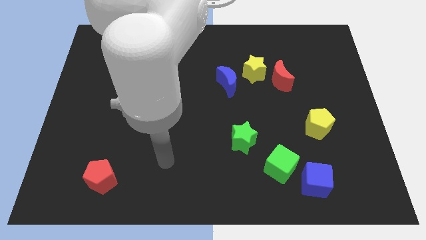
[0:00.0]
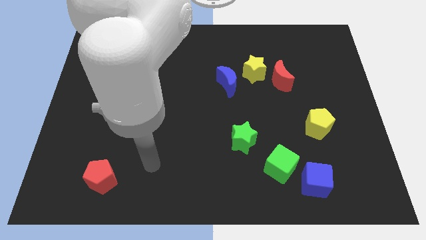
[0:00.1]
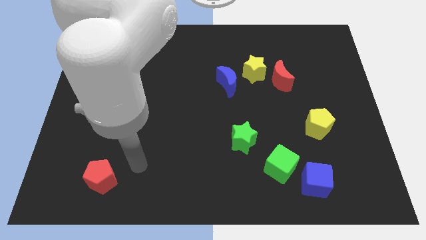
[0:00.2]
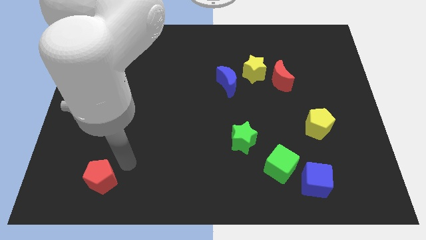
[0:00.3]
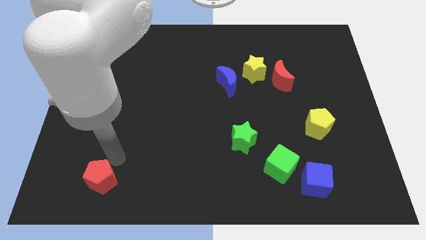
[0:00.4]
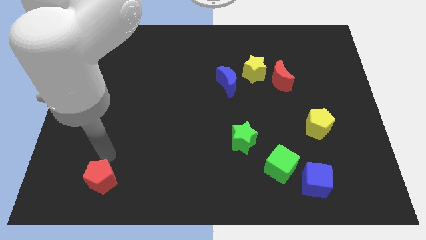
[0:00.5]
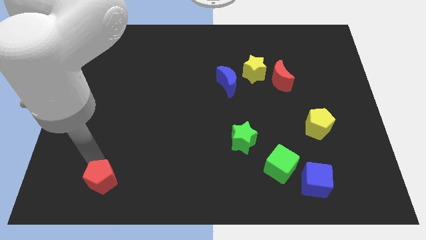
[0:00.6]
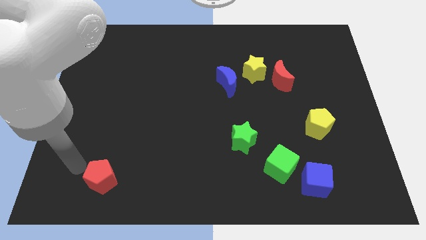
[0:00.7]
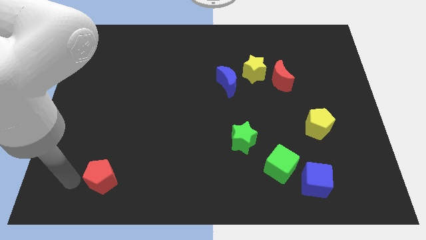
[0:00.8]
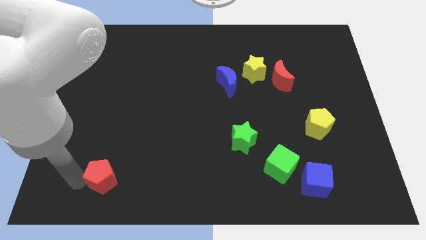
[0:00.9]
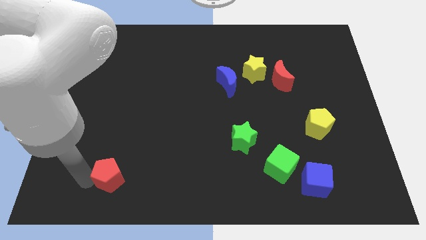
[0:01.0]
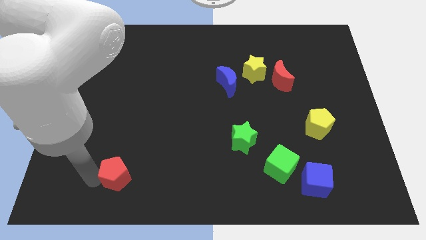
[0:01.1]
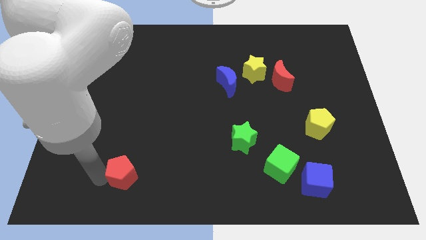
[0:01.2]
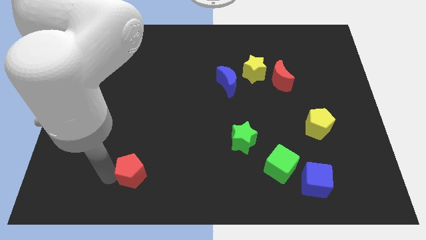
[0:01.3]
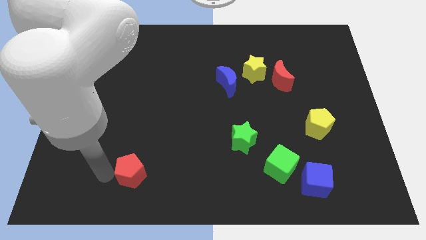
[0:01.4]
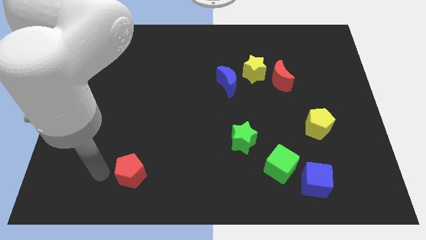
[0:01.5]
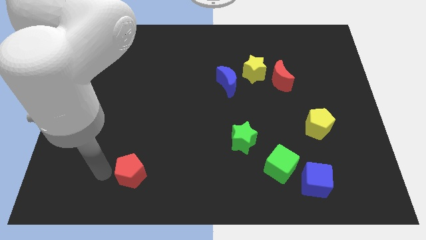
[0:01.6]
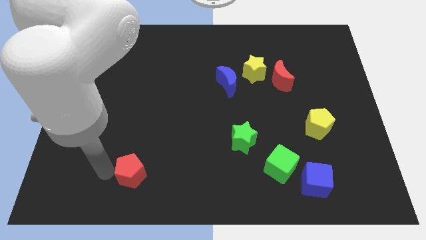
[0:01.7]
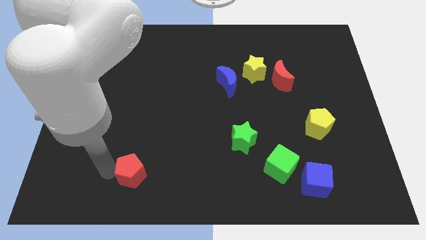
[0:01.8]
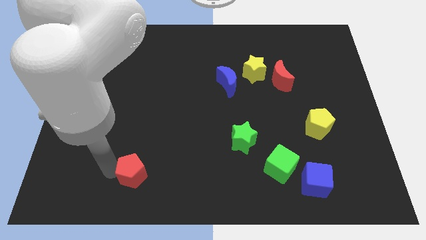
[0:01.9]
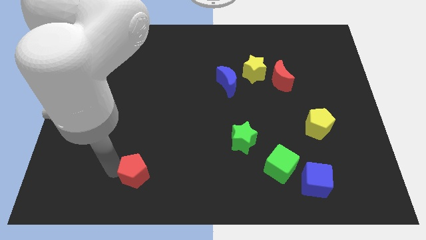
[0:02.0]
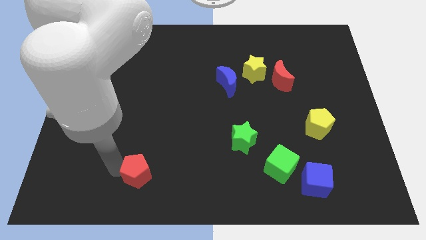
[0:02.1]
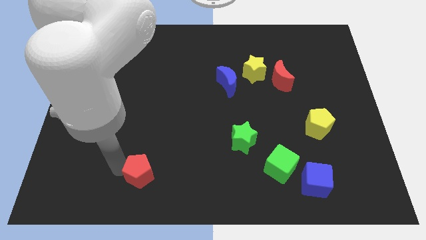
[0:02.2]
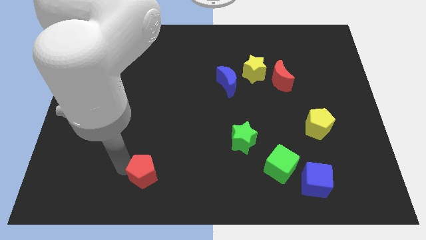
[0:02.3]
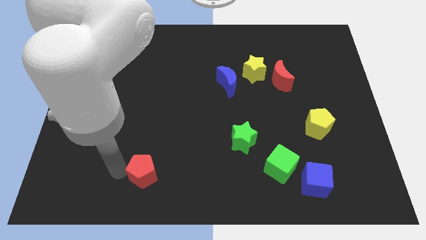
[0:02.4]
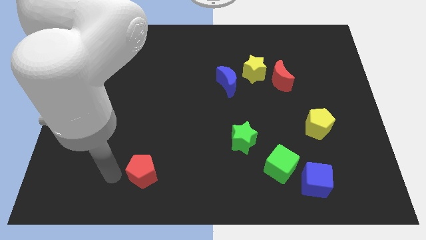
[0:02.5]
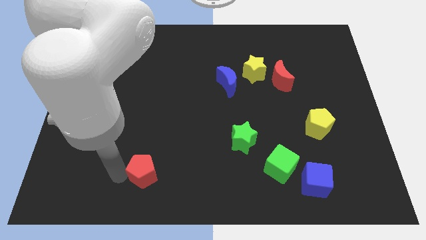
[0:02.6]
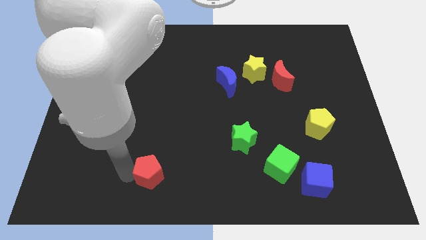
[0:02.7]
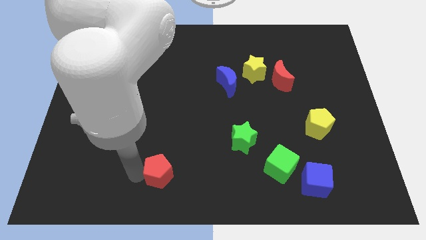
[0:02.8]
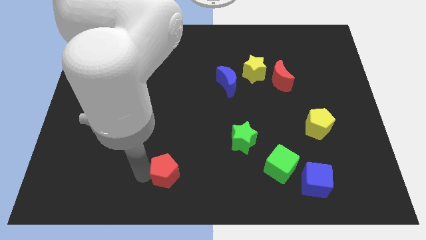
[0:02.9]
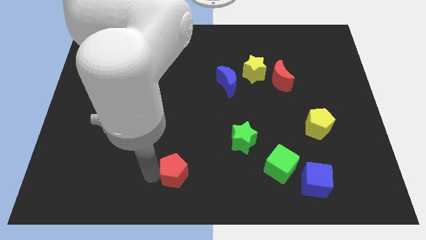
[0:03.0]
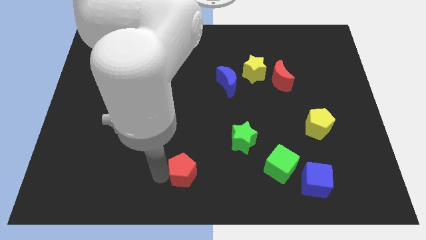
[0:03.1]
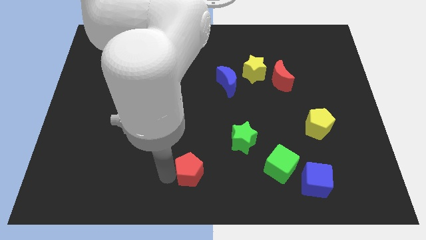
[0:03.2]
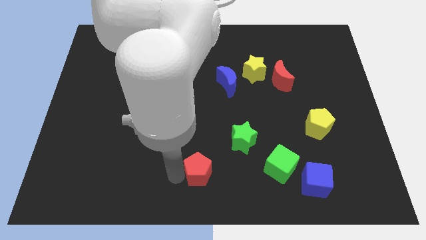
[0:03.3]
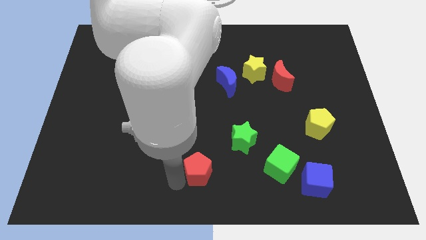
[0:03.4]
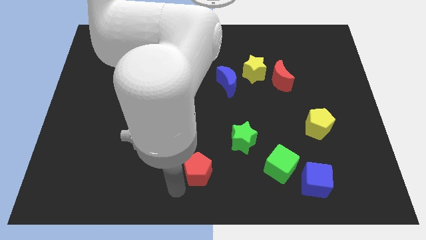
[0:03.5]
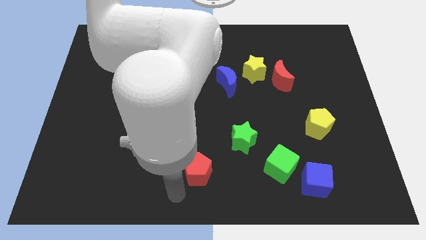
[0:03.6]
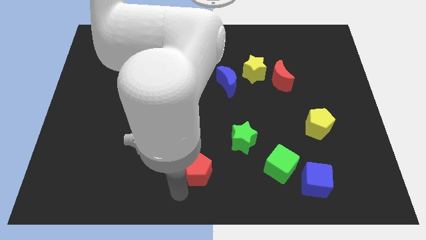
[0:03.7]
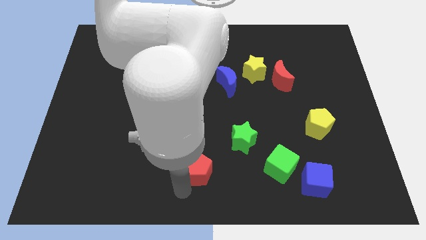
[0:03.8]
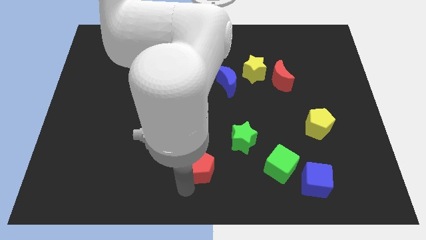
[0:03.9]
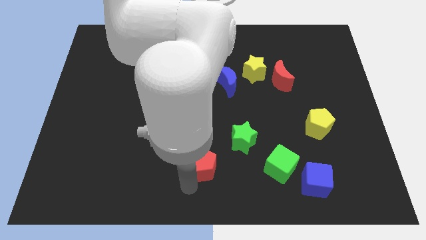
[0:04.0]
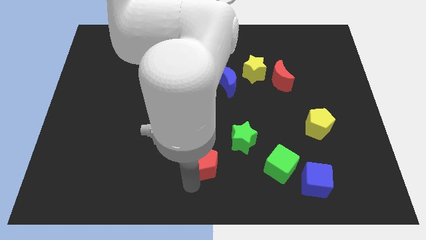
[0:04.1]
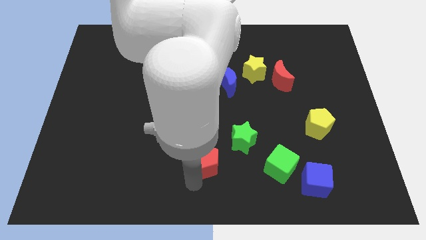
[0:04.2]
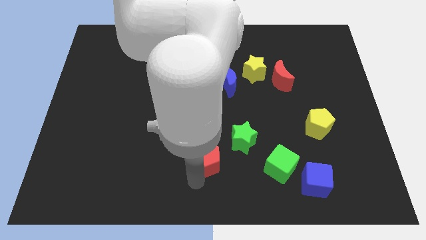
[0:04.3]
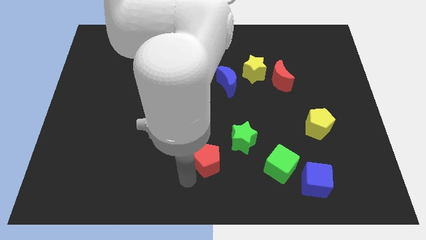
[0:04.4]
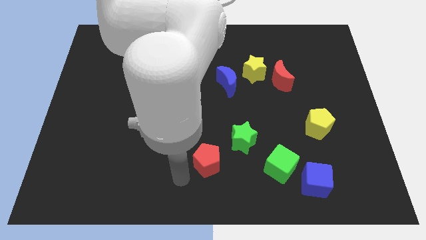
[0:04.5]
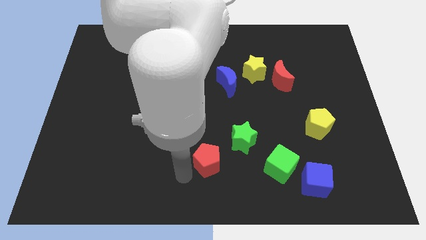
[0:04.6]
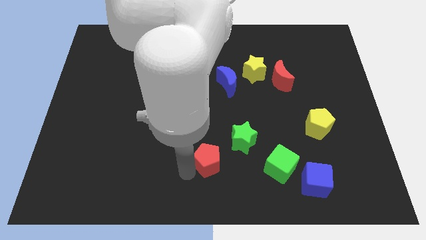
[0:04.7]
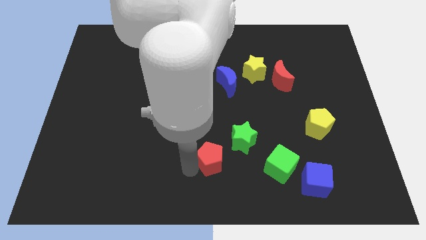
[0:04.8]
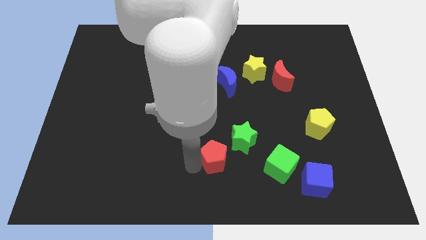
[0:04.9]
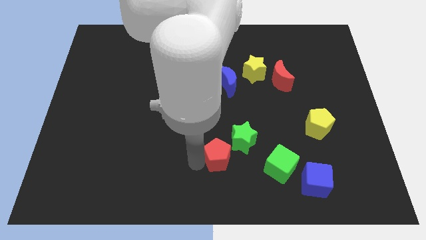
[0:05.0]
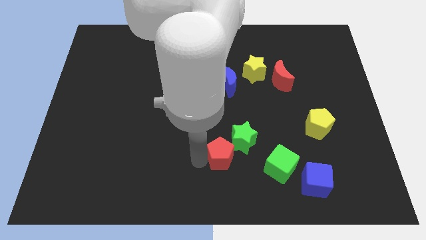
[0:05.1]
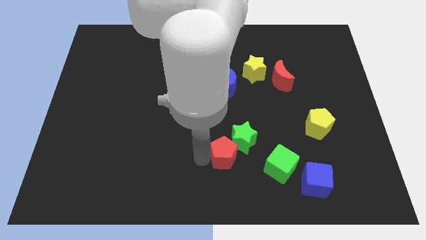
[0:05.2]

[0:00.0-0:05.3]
push the red pentagon close to the green star

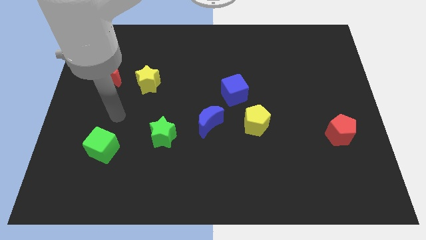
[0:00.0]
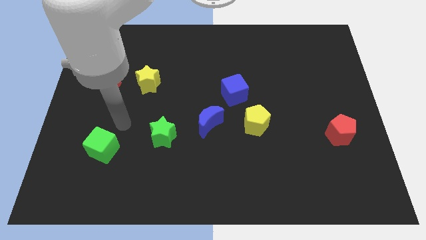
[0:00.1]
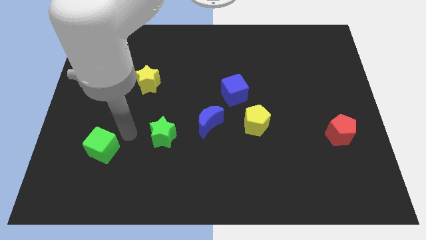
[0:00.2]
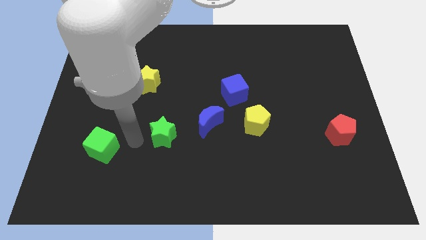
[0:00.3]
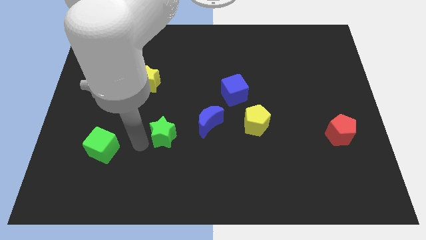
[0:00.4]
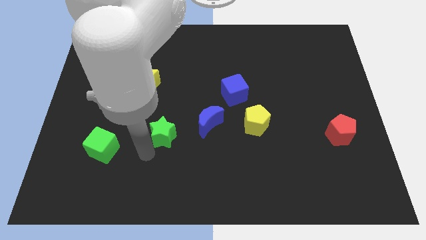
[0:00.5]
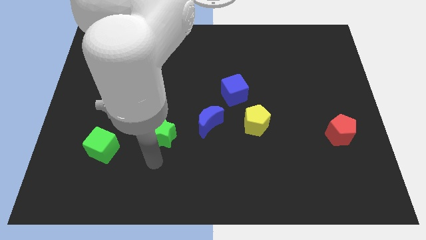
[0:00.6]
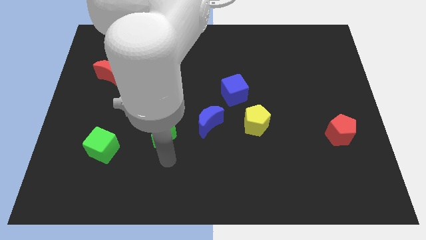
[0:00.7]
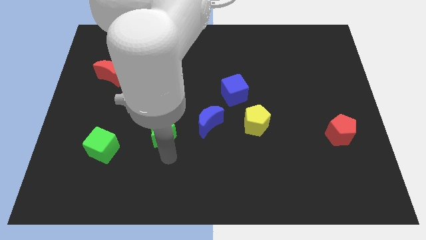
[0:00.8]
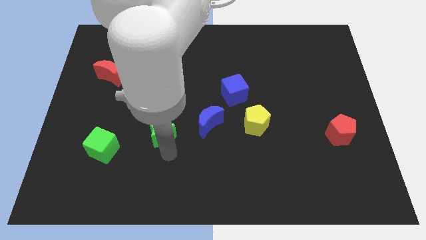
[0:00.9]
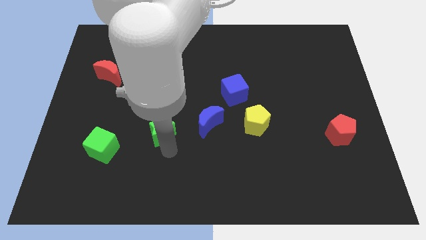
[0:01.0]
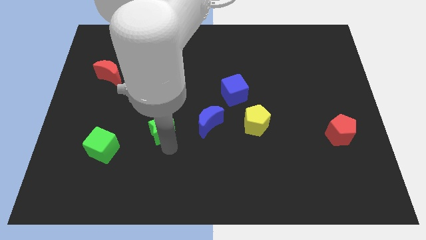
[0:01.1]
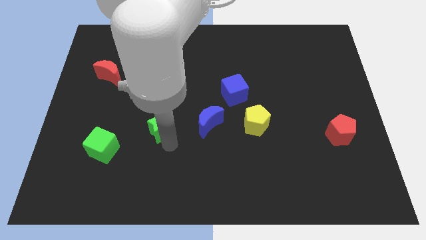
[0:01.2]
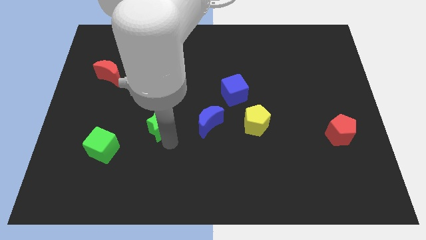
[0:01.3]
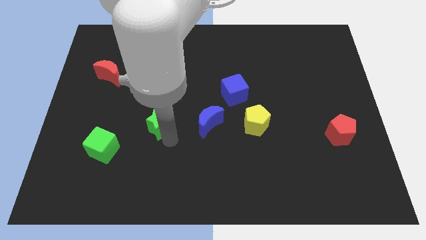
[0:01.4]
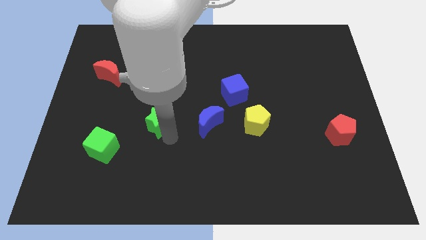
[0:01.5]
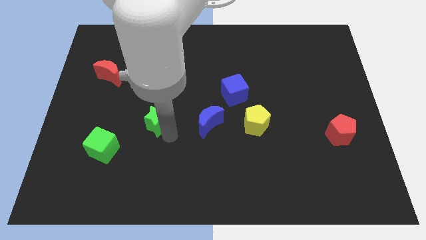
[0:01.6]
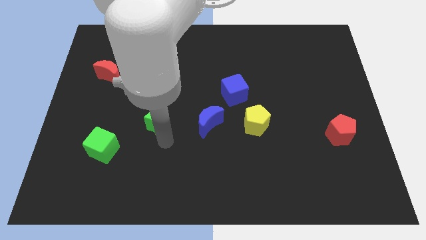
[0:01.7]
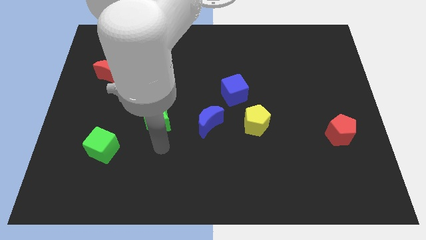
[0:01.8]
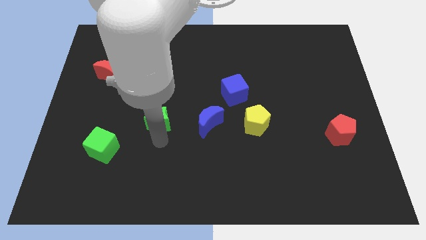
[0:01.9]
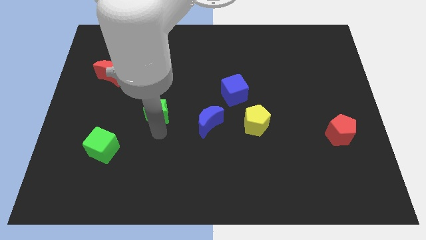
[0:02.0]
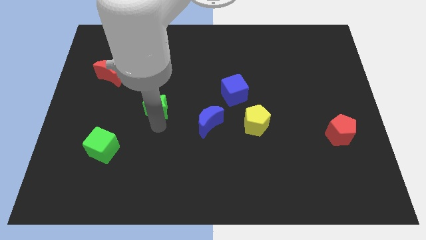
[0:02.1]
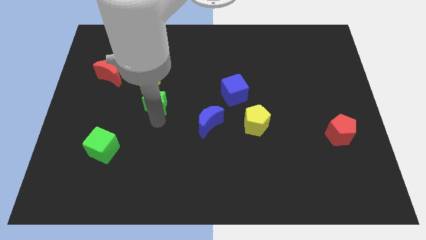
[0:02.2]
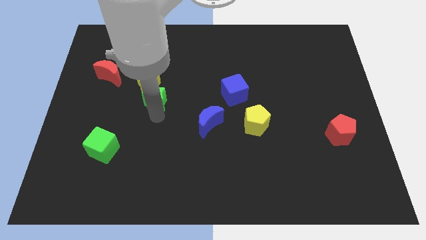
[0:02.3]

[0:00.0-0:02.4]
slide the green star close to the yellow star

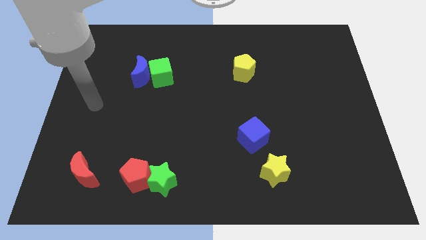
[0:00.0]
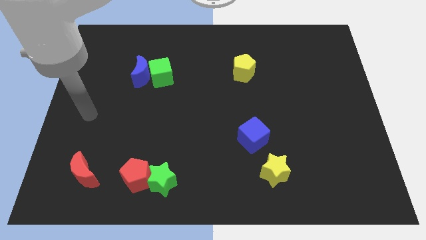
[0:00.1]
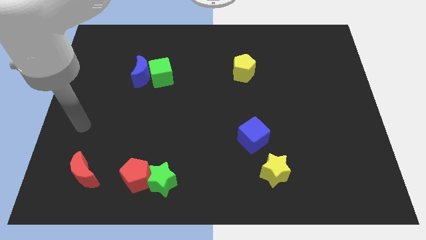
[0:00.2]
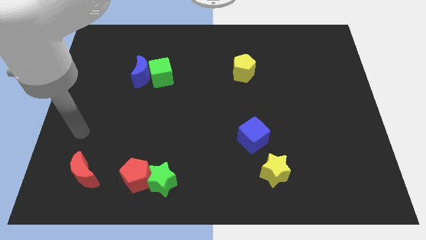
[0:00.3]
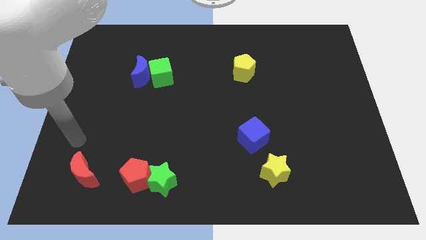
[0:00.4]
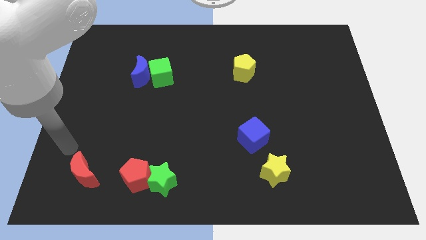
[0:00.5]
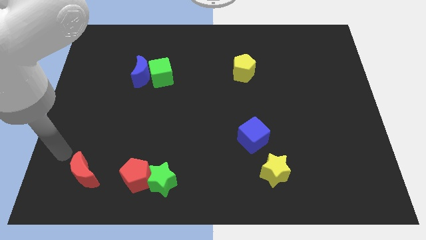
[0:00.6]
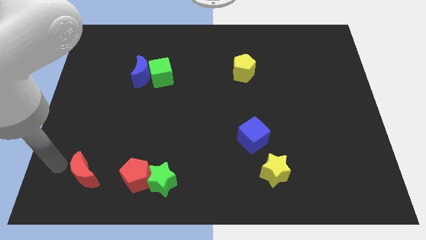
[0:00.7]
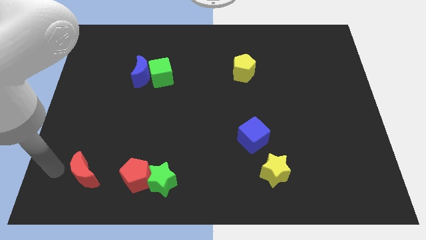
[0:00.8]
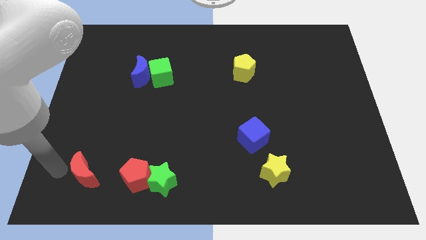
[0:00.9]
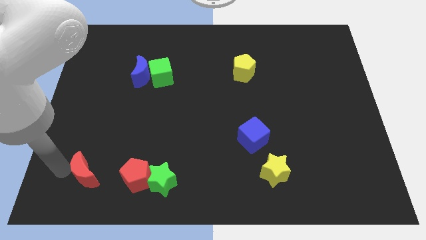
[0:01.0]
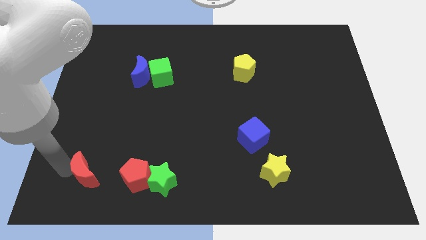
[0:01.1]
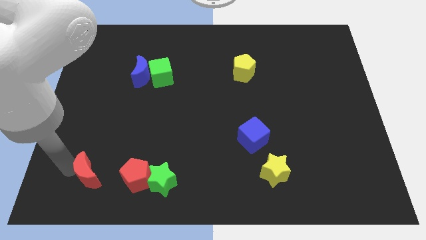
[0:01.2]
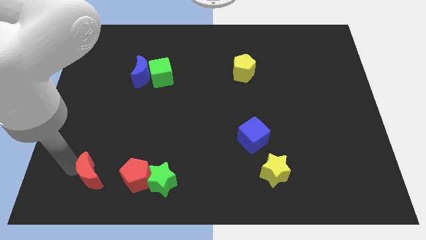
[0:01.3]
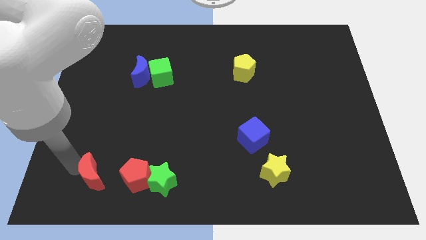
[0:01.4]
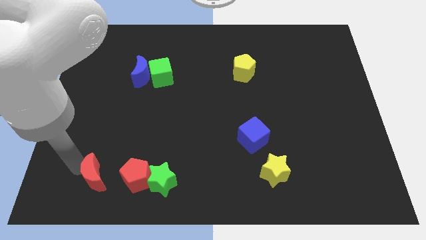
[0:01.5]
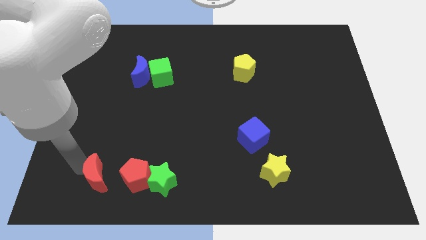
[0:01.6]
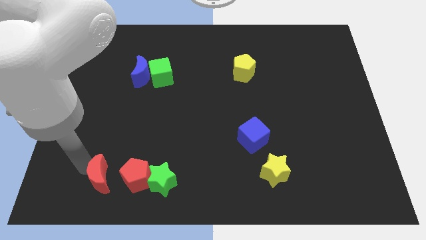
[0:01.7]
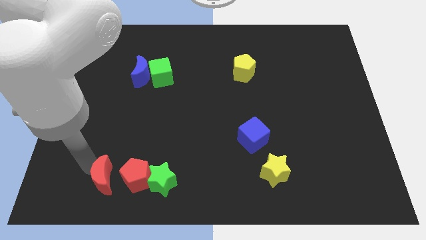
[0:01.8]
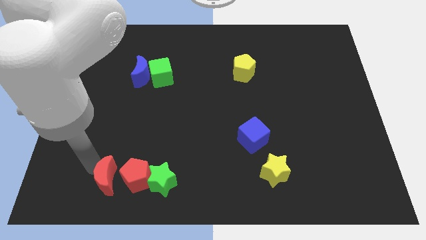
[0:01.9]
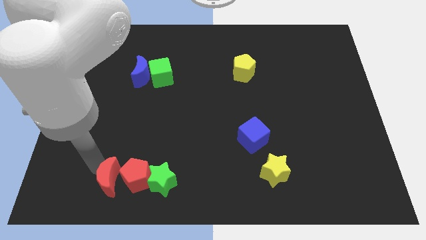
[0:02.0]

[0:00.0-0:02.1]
slide the red moon next to the red pentagon
